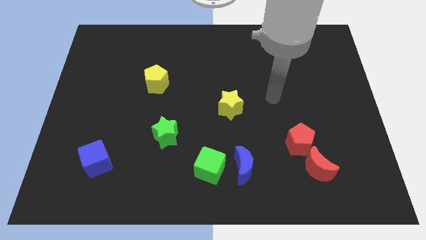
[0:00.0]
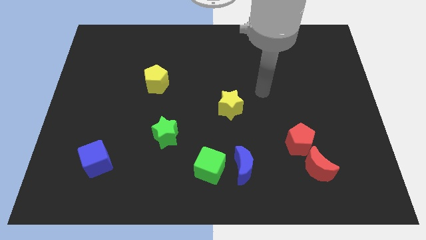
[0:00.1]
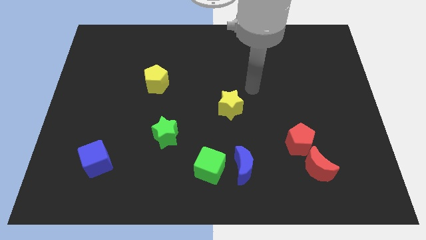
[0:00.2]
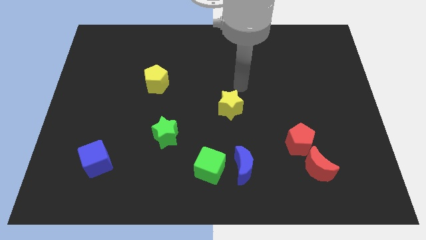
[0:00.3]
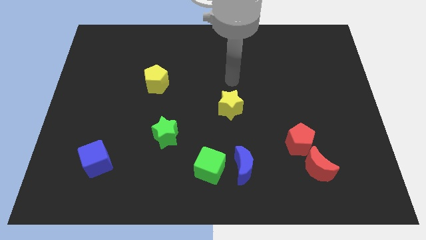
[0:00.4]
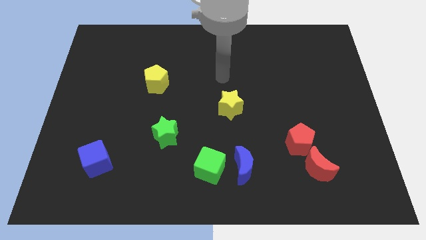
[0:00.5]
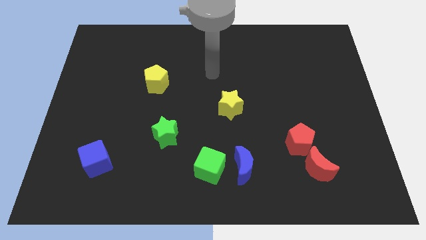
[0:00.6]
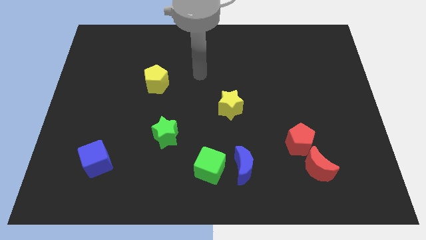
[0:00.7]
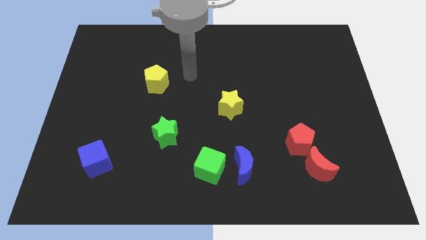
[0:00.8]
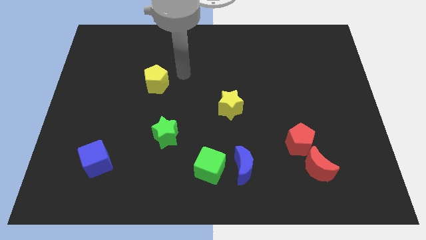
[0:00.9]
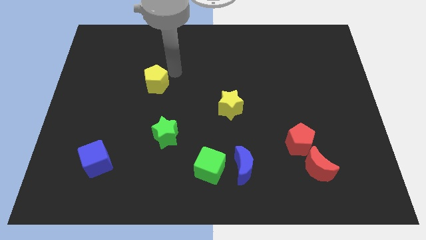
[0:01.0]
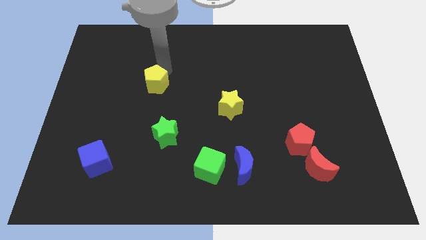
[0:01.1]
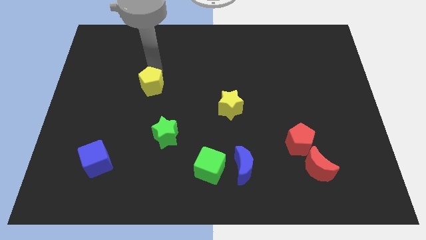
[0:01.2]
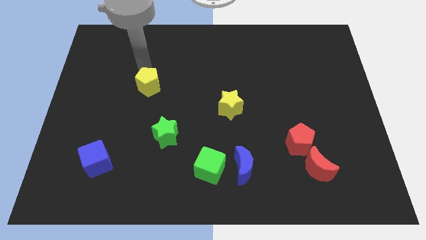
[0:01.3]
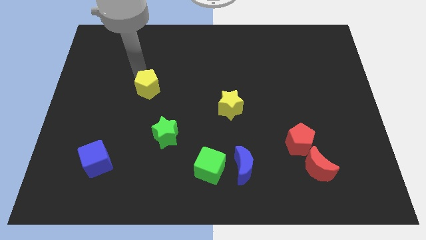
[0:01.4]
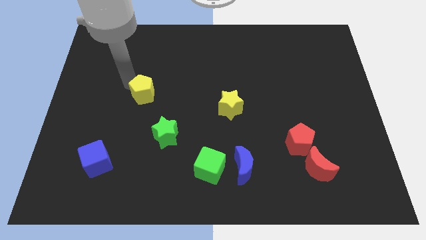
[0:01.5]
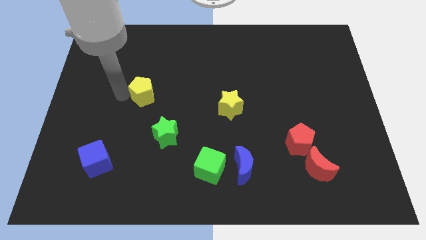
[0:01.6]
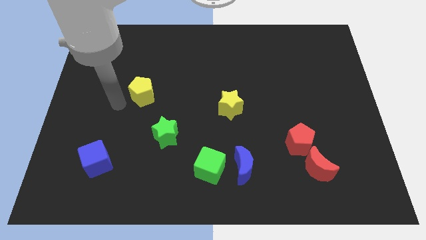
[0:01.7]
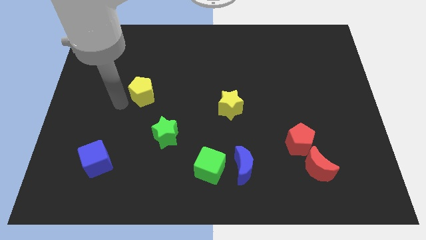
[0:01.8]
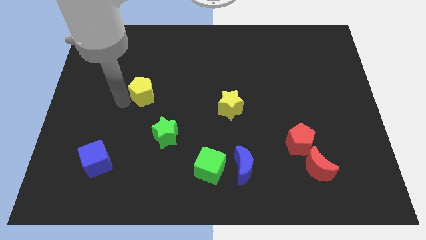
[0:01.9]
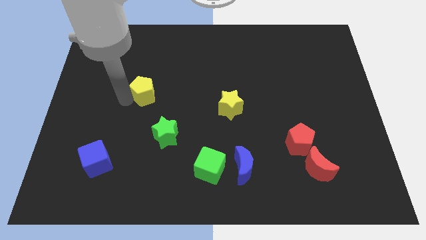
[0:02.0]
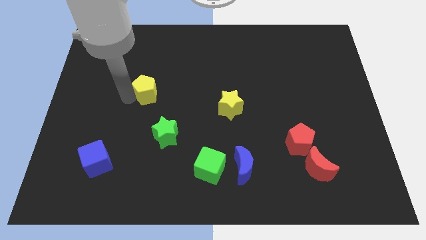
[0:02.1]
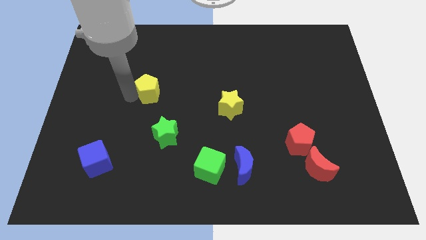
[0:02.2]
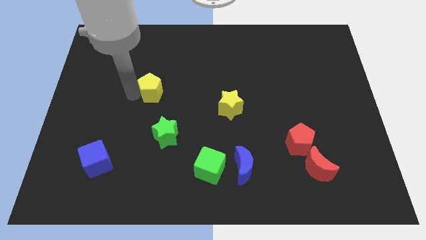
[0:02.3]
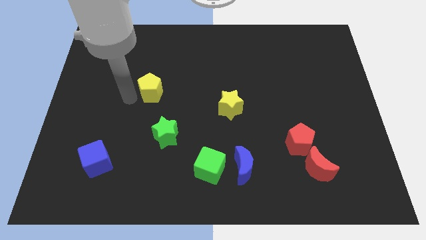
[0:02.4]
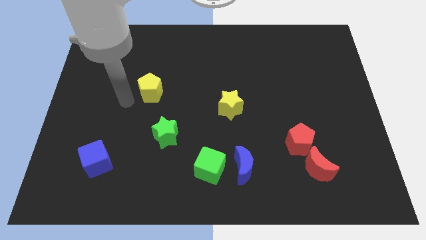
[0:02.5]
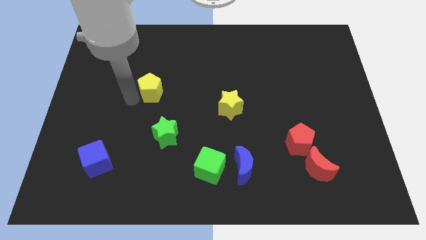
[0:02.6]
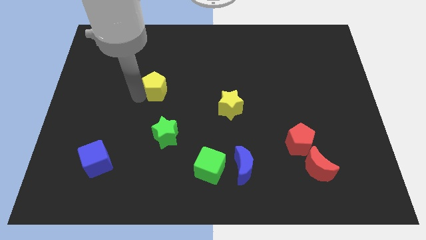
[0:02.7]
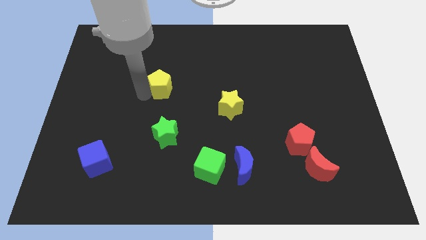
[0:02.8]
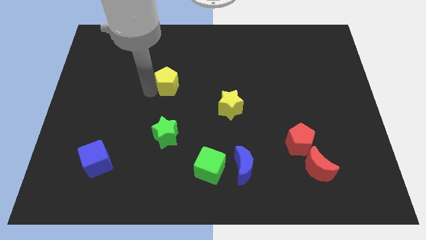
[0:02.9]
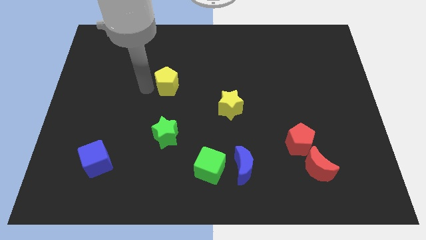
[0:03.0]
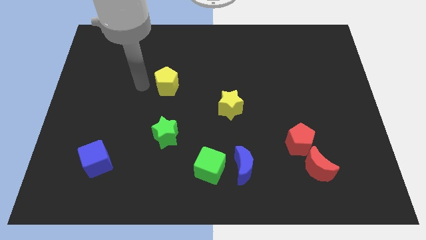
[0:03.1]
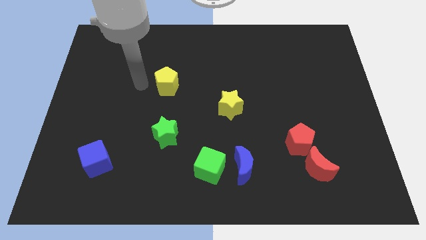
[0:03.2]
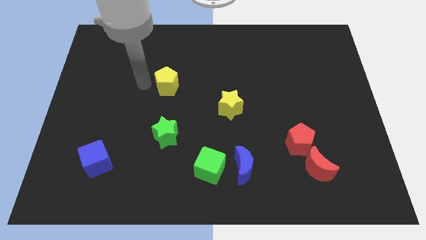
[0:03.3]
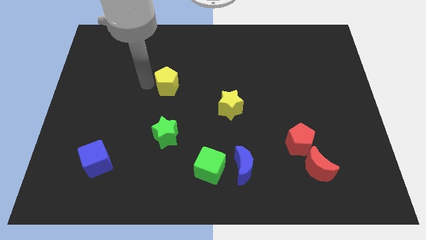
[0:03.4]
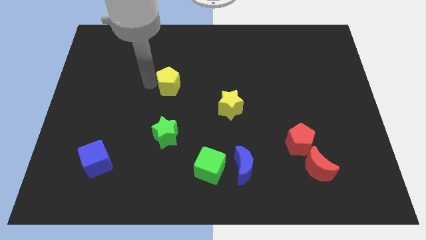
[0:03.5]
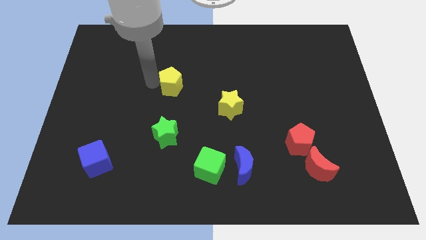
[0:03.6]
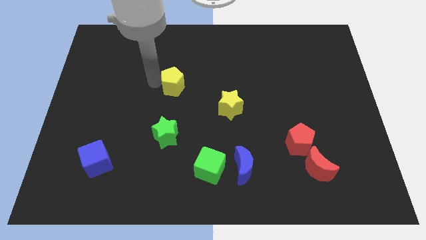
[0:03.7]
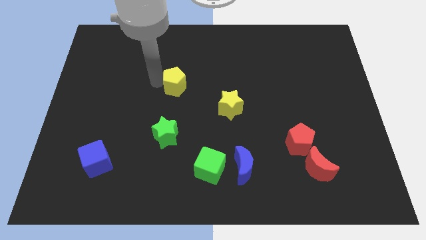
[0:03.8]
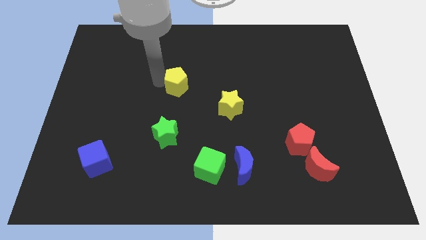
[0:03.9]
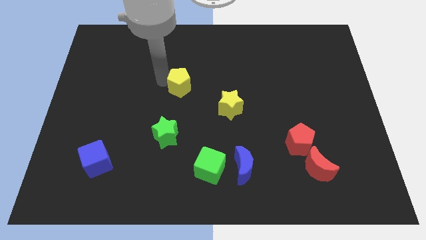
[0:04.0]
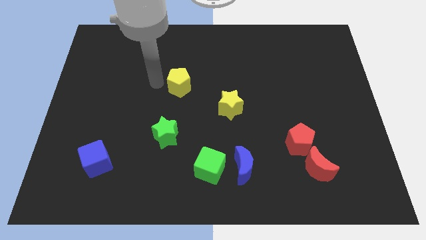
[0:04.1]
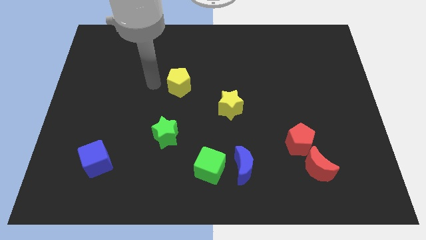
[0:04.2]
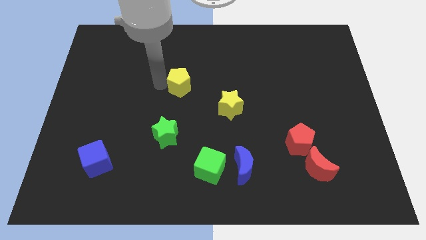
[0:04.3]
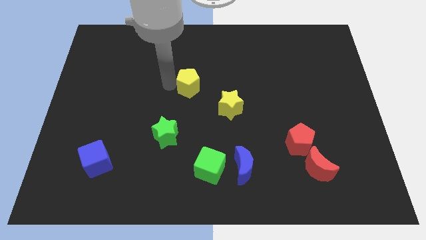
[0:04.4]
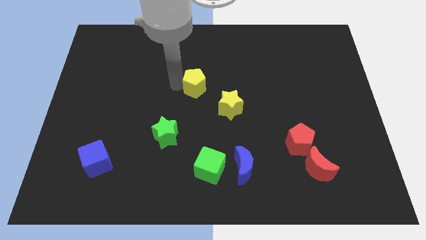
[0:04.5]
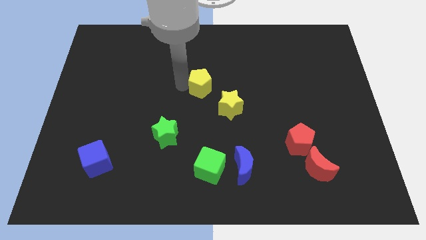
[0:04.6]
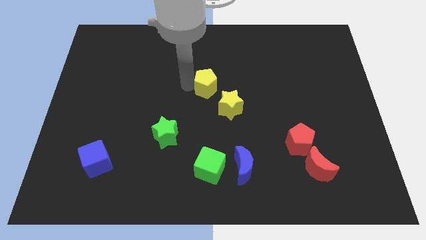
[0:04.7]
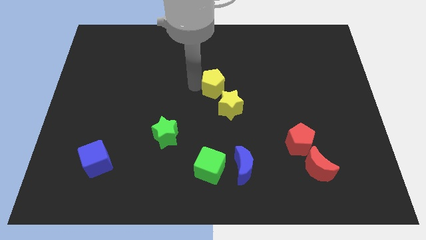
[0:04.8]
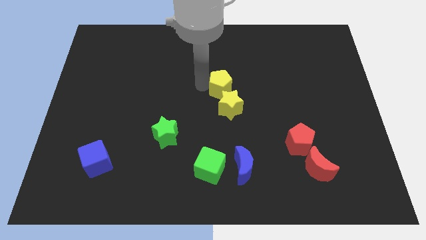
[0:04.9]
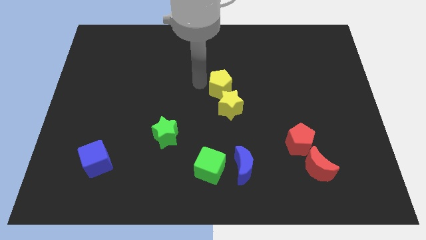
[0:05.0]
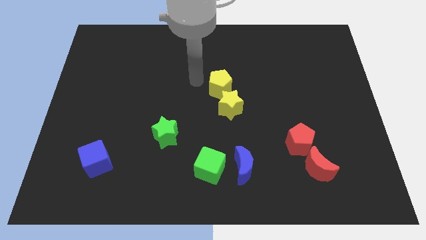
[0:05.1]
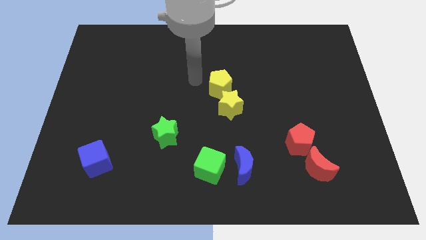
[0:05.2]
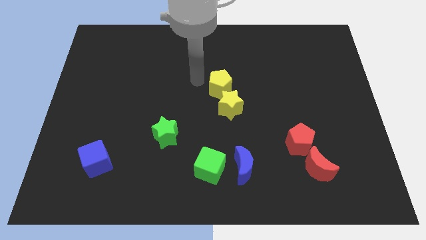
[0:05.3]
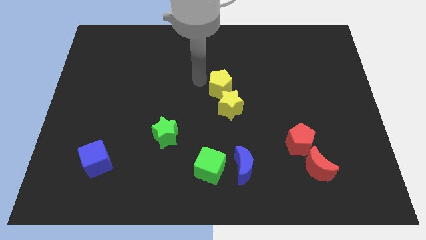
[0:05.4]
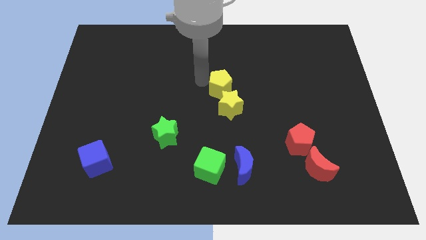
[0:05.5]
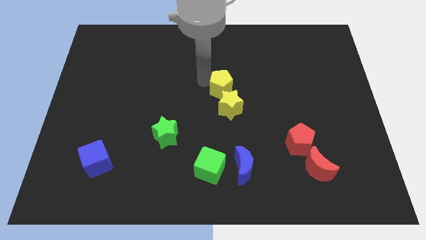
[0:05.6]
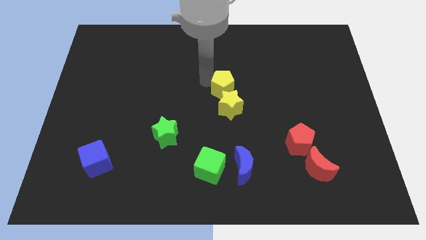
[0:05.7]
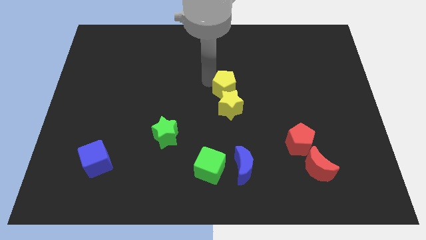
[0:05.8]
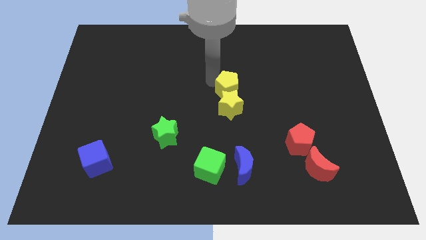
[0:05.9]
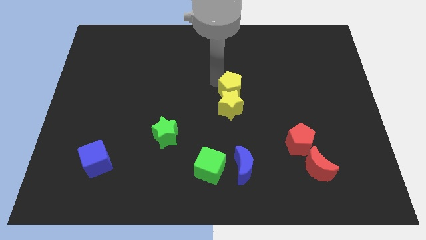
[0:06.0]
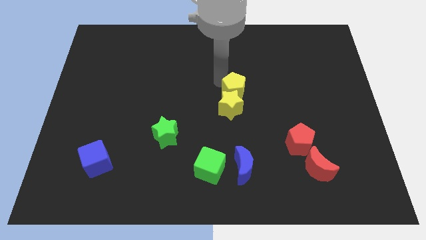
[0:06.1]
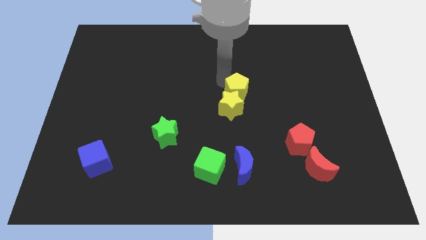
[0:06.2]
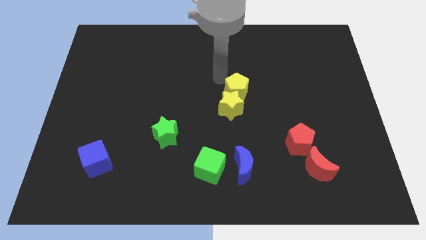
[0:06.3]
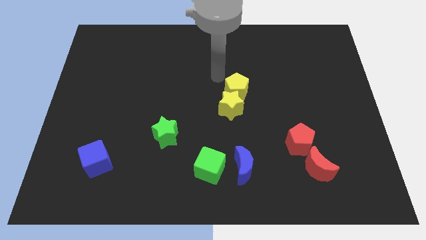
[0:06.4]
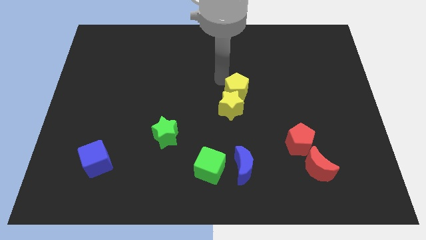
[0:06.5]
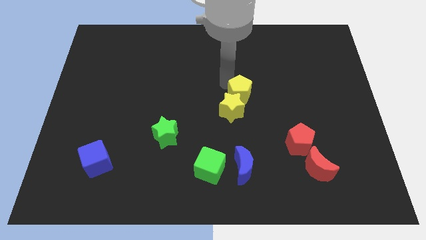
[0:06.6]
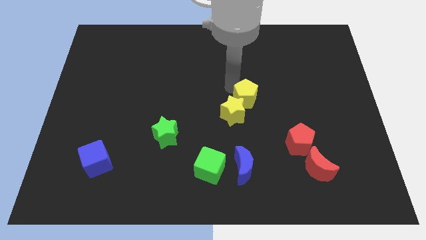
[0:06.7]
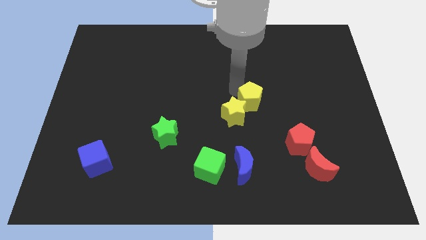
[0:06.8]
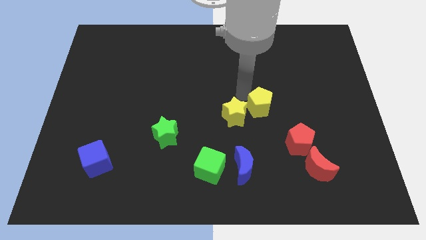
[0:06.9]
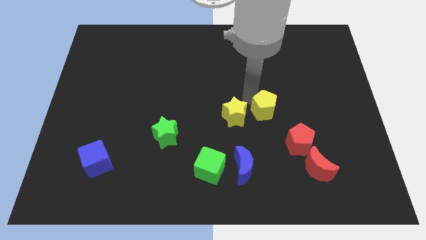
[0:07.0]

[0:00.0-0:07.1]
move the yellow pentagon to the top left side of the red pentagon

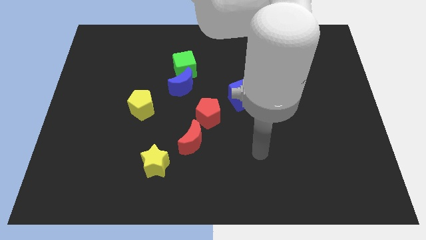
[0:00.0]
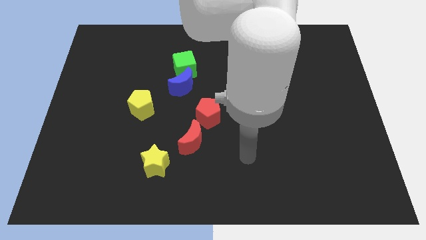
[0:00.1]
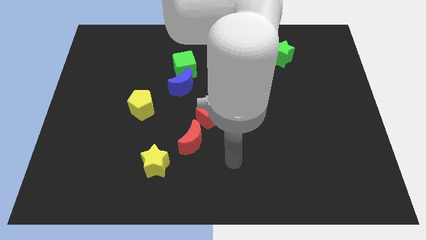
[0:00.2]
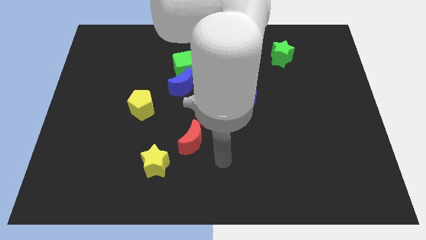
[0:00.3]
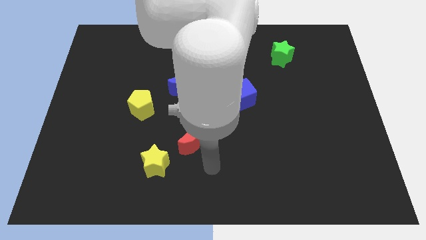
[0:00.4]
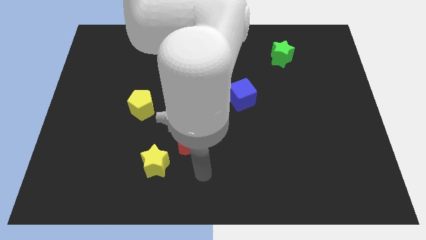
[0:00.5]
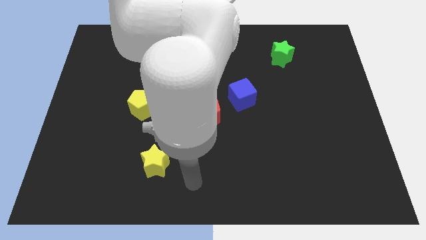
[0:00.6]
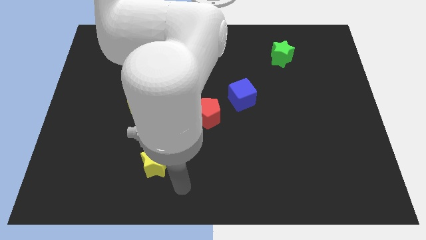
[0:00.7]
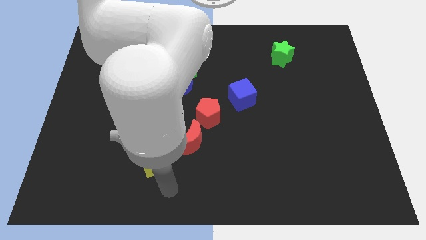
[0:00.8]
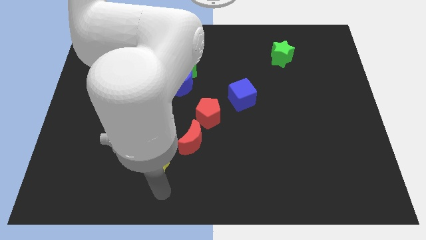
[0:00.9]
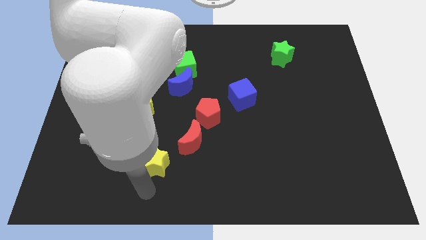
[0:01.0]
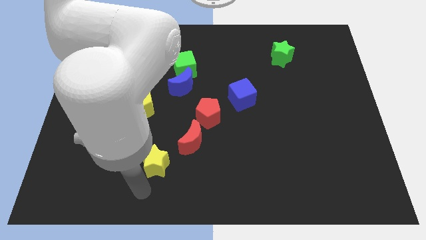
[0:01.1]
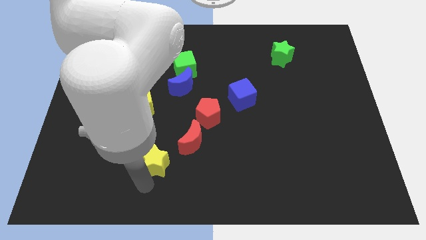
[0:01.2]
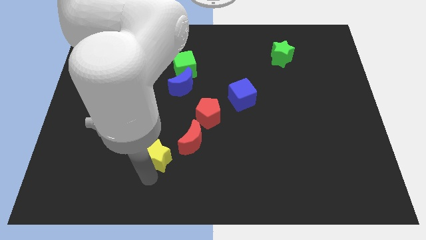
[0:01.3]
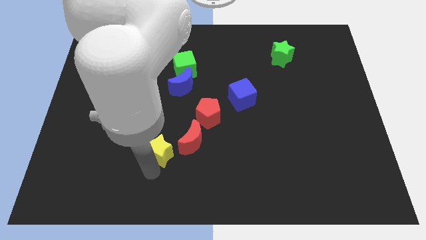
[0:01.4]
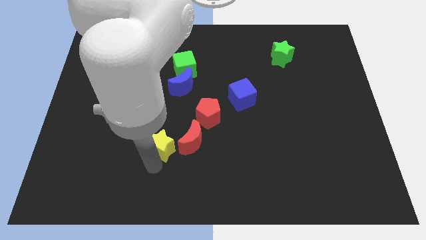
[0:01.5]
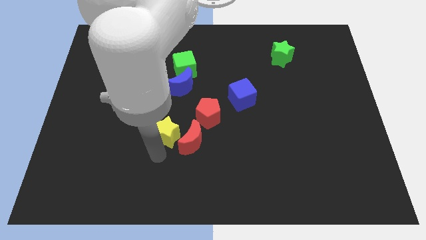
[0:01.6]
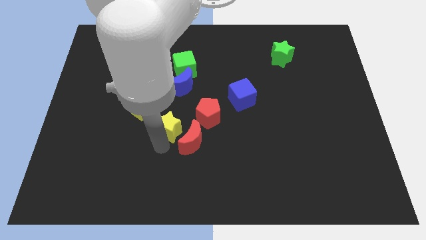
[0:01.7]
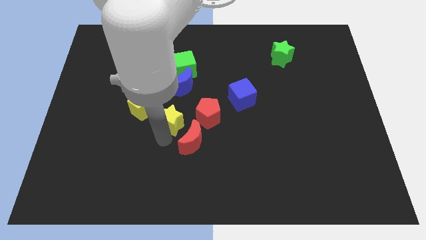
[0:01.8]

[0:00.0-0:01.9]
push the yellow star to the right of the yellow pentagon
